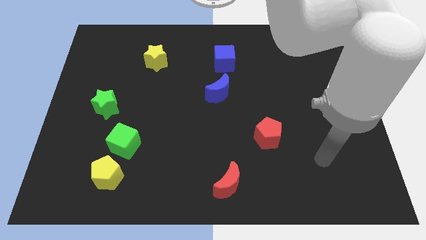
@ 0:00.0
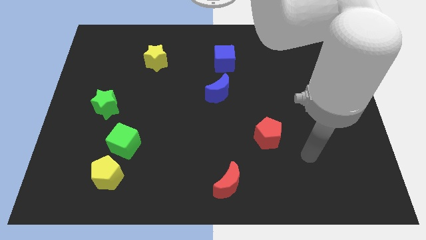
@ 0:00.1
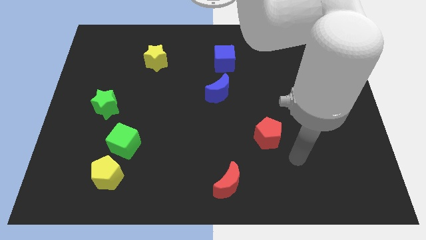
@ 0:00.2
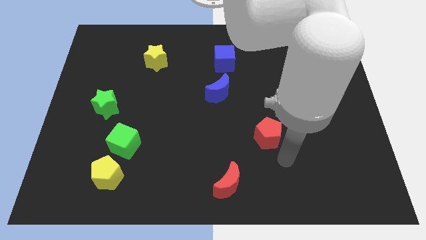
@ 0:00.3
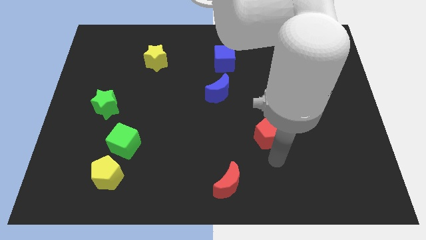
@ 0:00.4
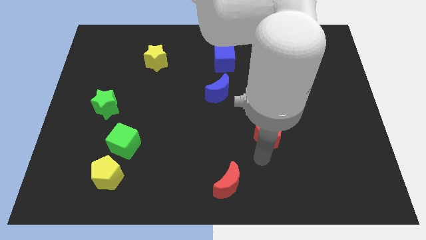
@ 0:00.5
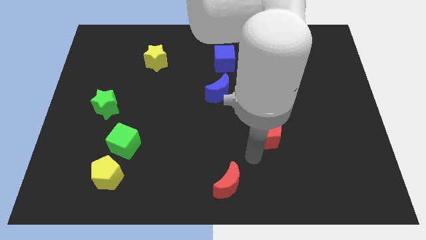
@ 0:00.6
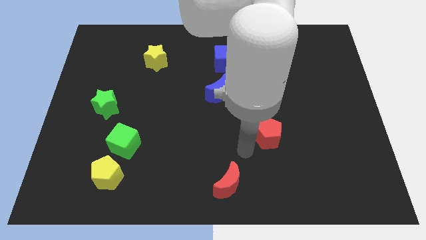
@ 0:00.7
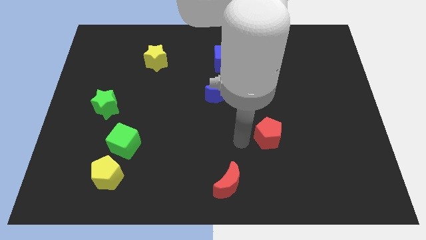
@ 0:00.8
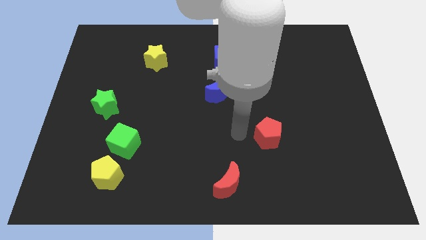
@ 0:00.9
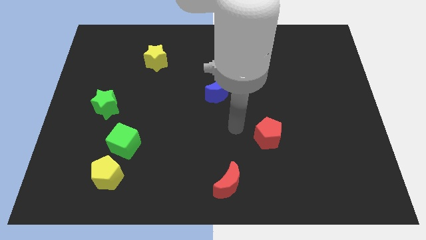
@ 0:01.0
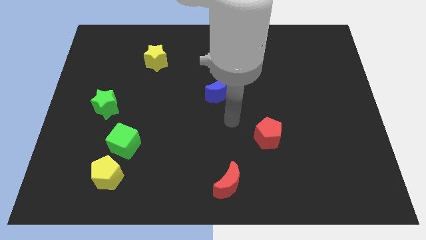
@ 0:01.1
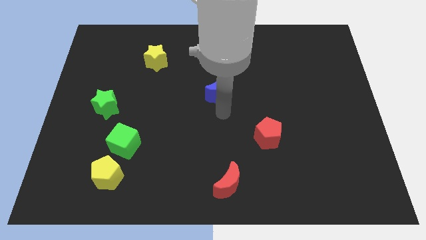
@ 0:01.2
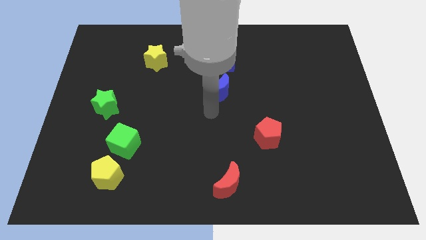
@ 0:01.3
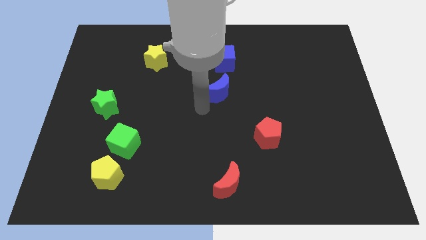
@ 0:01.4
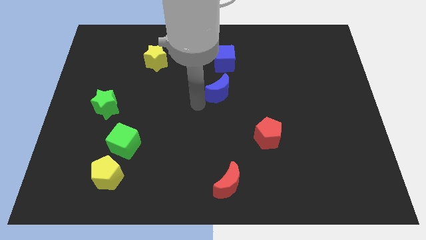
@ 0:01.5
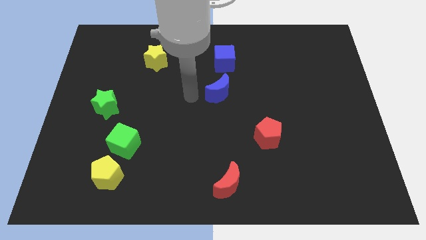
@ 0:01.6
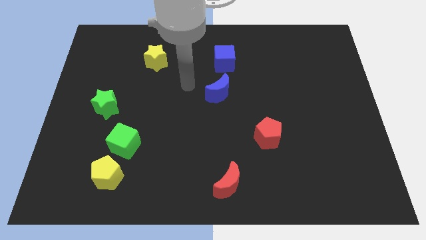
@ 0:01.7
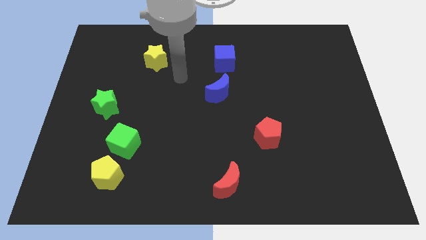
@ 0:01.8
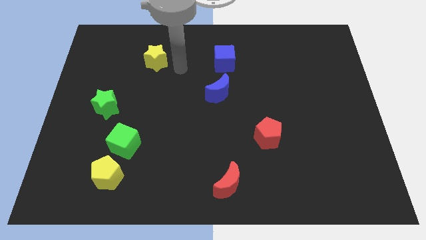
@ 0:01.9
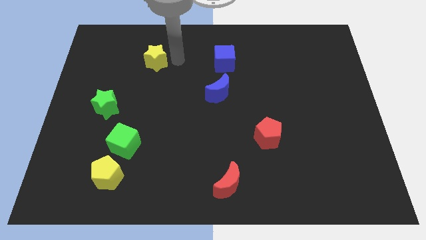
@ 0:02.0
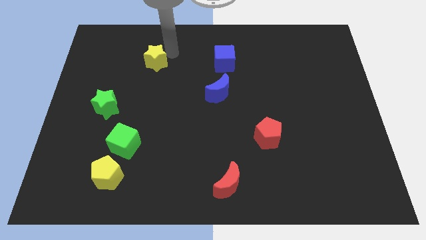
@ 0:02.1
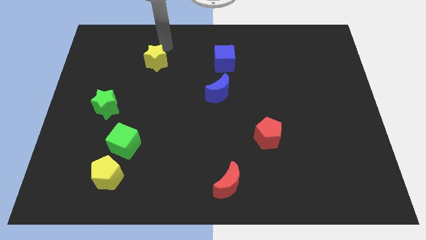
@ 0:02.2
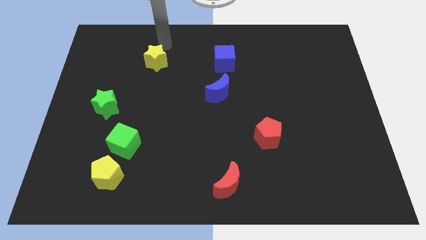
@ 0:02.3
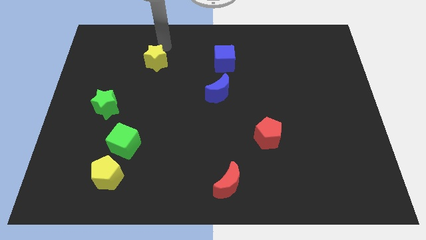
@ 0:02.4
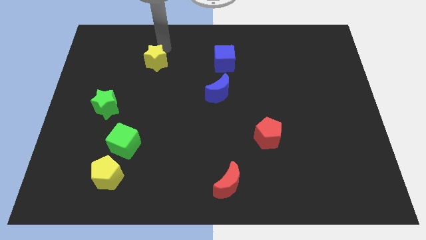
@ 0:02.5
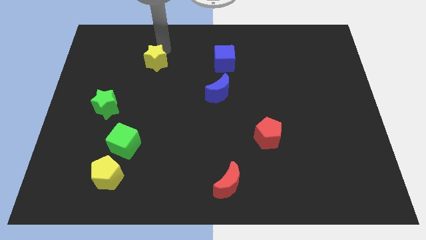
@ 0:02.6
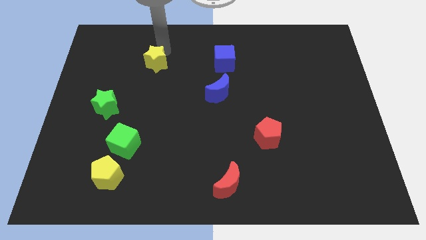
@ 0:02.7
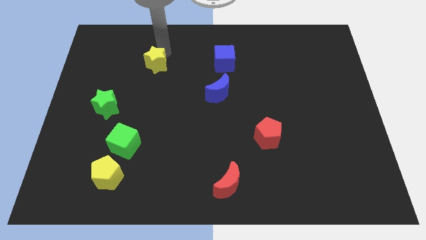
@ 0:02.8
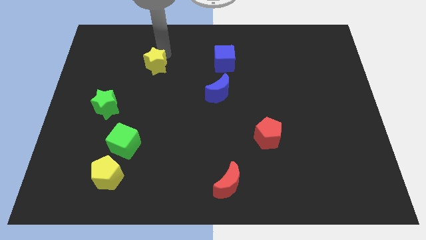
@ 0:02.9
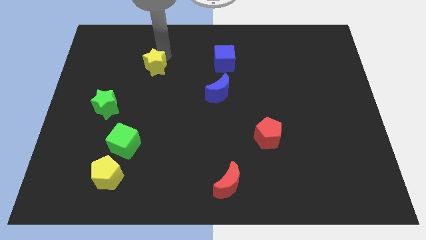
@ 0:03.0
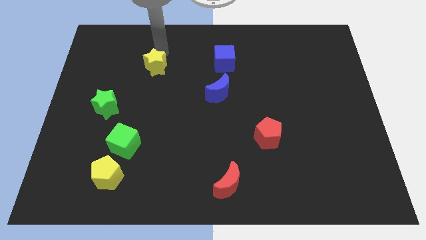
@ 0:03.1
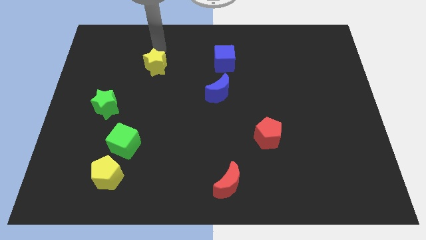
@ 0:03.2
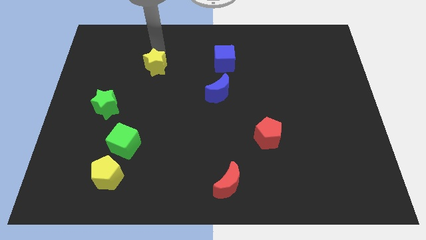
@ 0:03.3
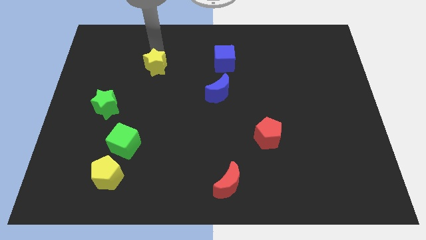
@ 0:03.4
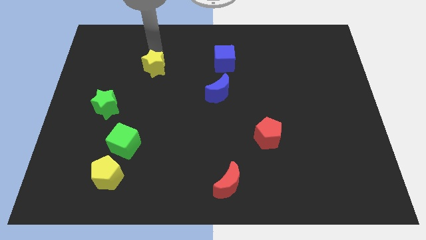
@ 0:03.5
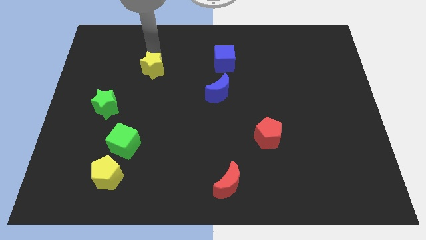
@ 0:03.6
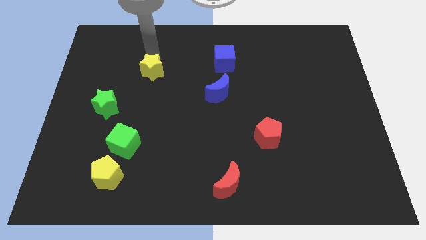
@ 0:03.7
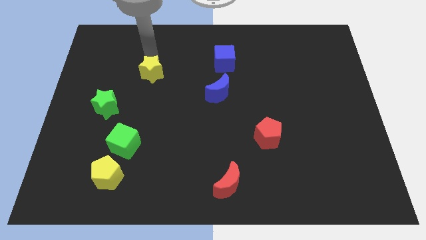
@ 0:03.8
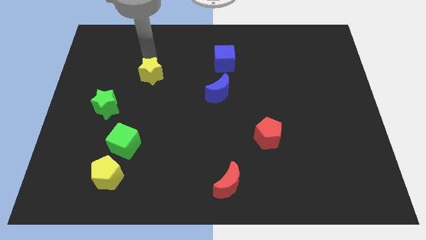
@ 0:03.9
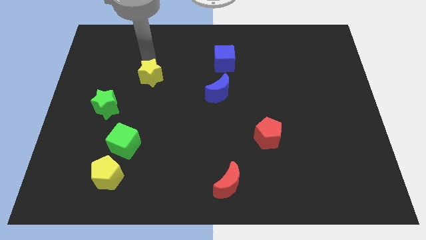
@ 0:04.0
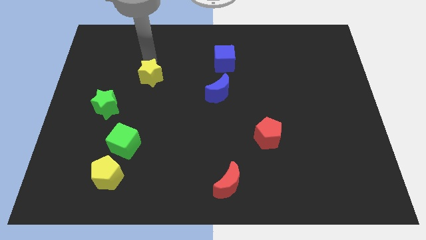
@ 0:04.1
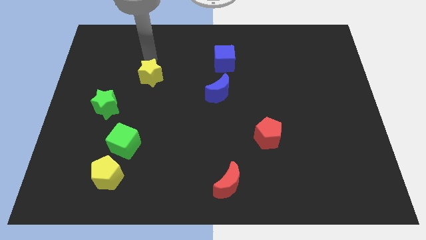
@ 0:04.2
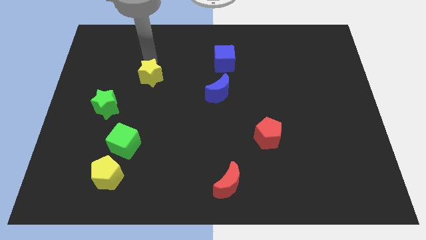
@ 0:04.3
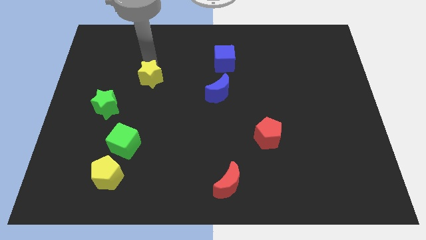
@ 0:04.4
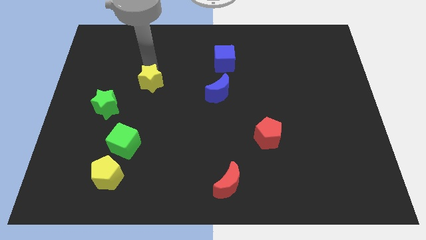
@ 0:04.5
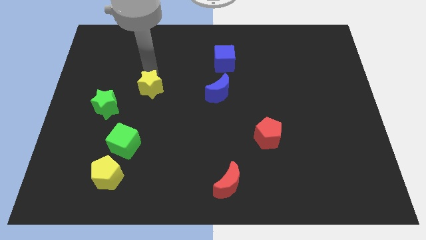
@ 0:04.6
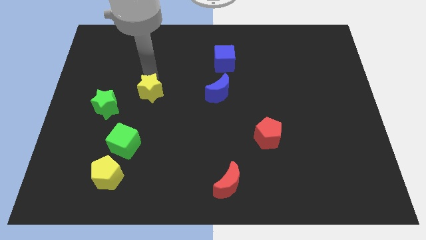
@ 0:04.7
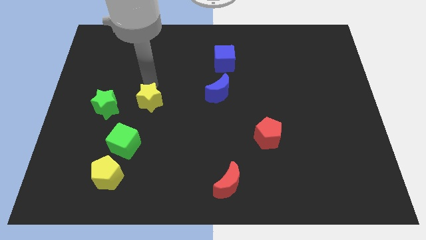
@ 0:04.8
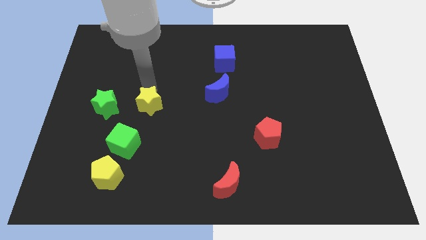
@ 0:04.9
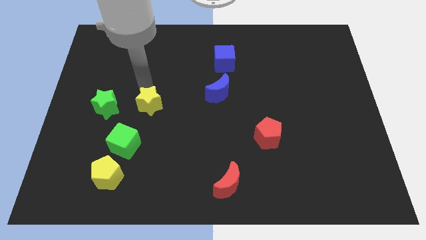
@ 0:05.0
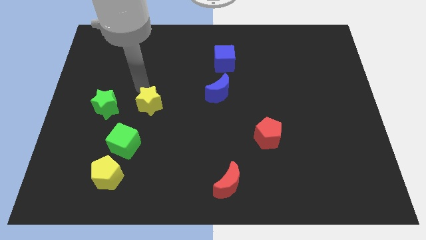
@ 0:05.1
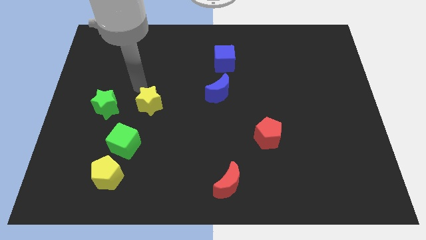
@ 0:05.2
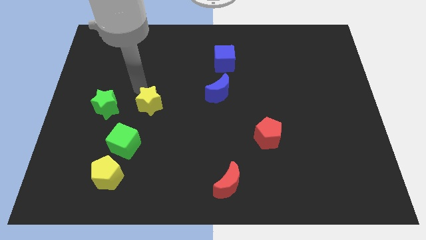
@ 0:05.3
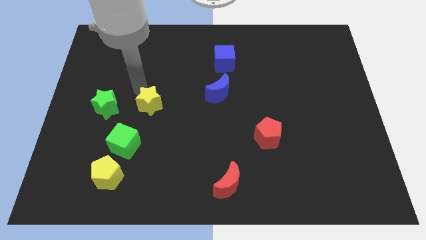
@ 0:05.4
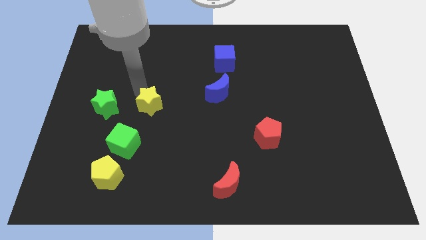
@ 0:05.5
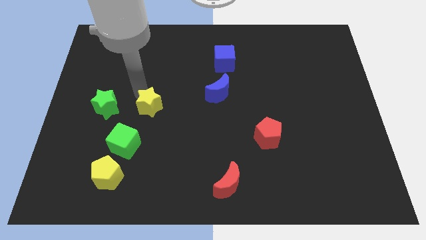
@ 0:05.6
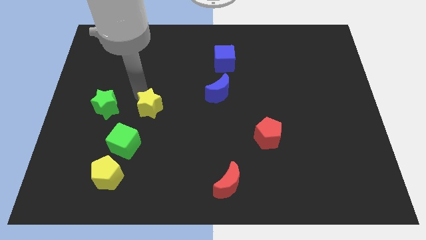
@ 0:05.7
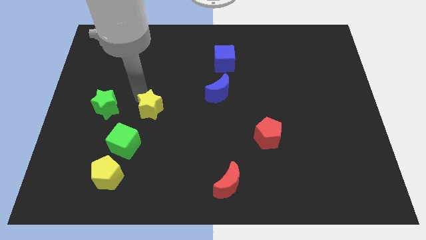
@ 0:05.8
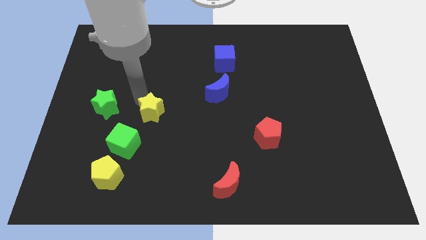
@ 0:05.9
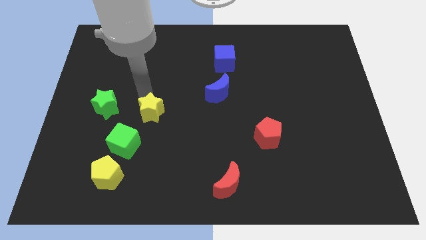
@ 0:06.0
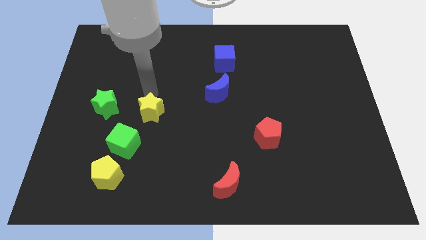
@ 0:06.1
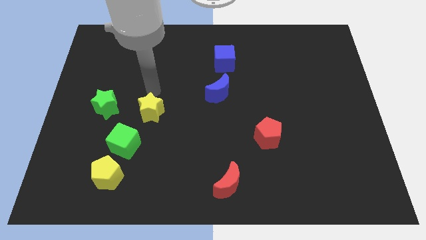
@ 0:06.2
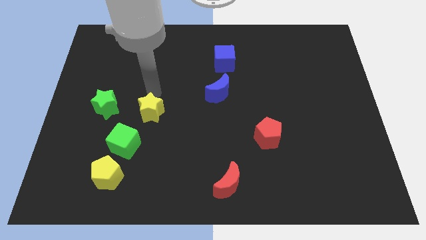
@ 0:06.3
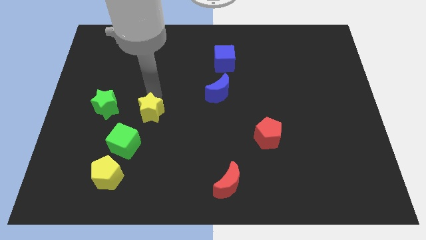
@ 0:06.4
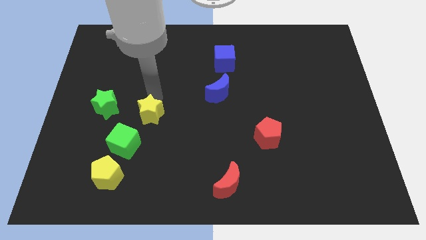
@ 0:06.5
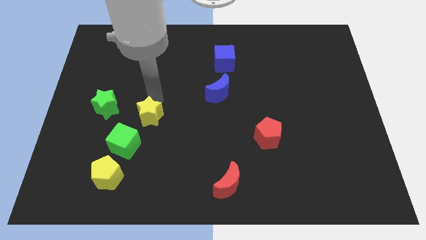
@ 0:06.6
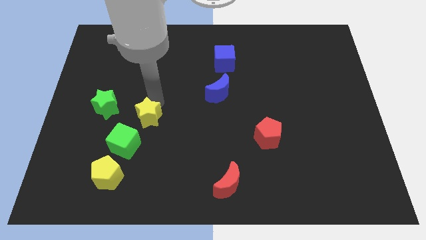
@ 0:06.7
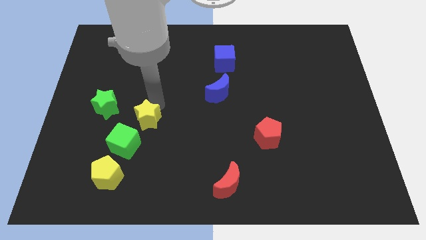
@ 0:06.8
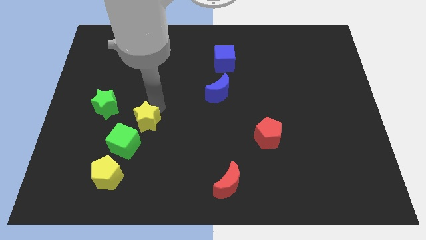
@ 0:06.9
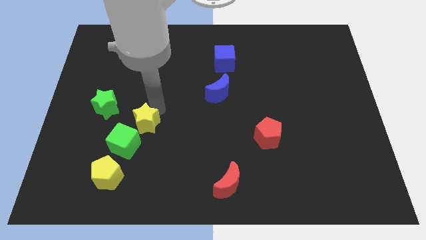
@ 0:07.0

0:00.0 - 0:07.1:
slide the yellow star down

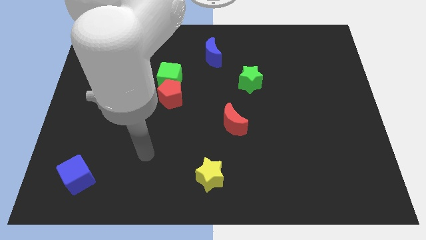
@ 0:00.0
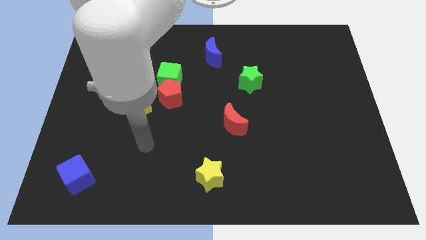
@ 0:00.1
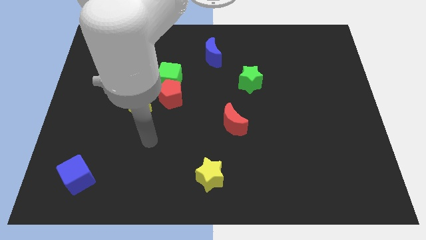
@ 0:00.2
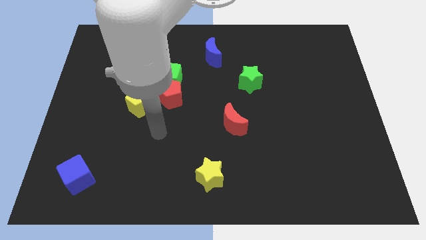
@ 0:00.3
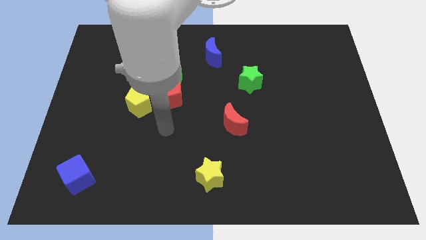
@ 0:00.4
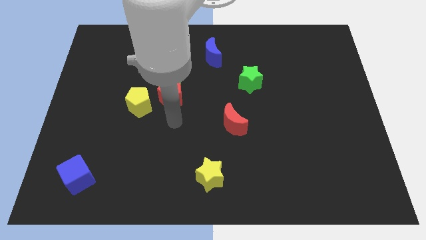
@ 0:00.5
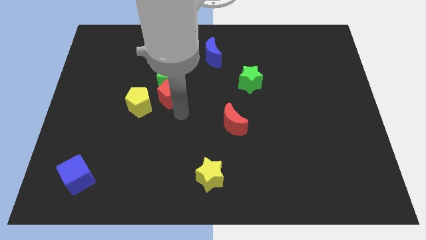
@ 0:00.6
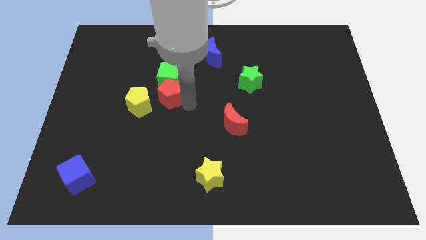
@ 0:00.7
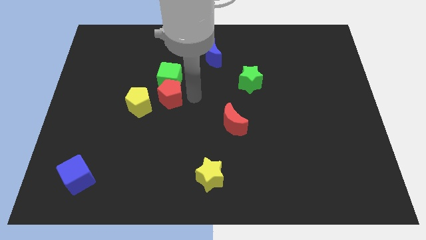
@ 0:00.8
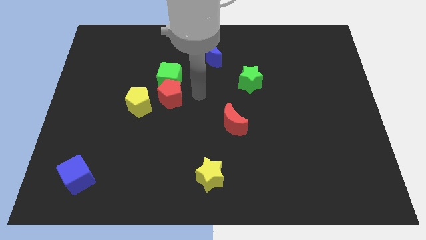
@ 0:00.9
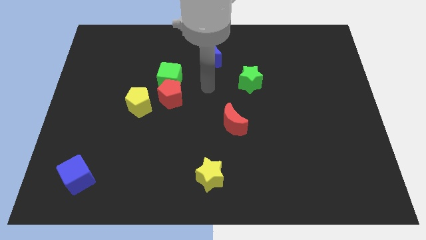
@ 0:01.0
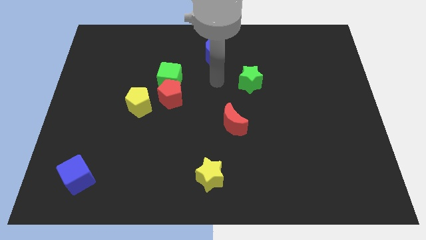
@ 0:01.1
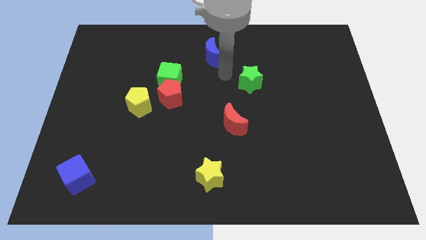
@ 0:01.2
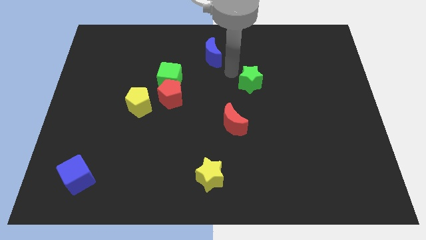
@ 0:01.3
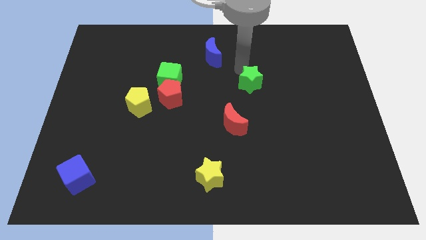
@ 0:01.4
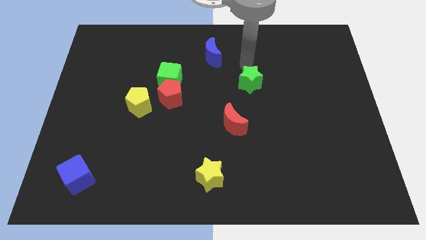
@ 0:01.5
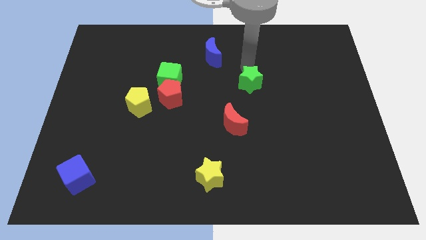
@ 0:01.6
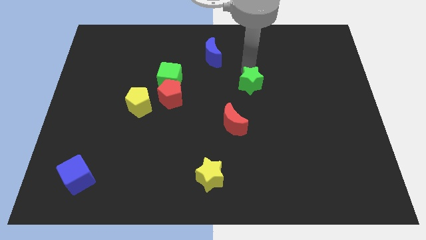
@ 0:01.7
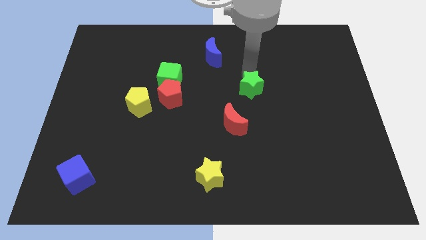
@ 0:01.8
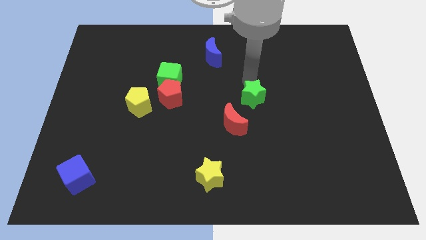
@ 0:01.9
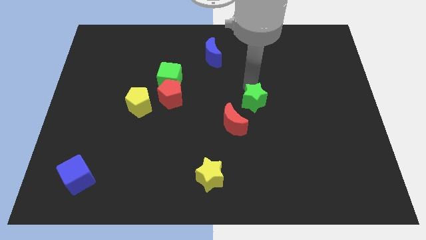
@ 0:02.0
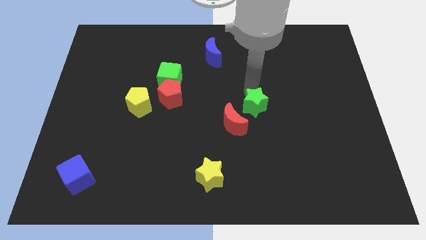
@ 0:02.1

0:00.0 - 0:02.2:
push the green star down a bit
